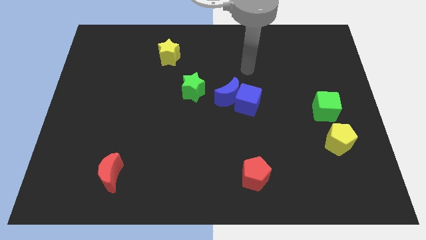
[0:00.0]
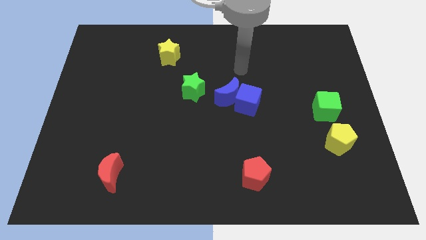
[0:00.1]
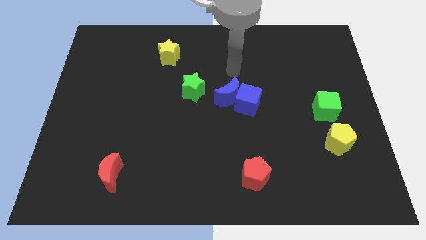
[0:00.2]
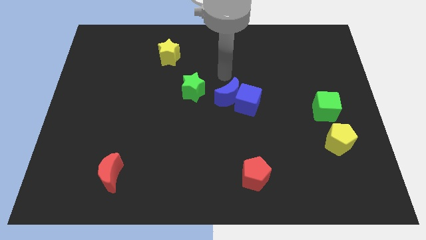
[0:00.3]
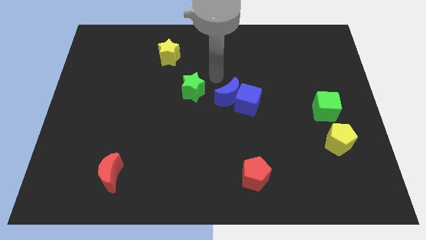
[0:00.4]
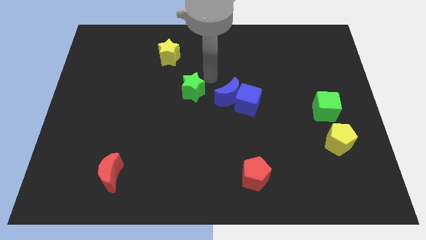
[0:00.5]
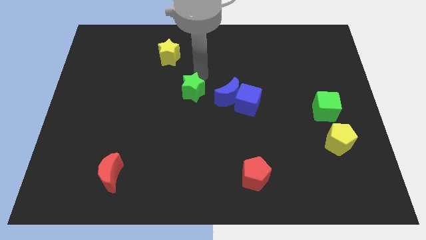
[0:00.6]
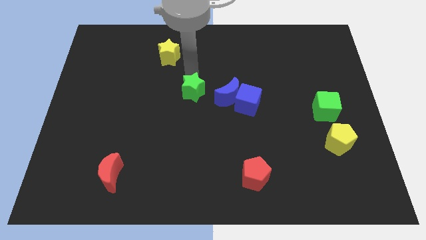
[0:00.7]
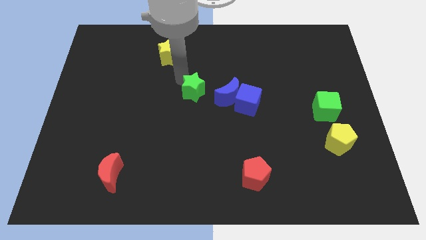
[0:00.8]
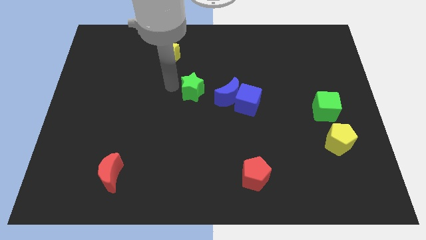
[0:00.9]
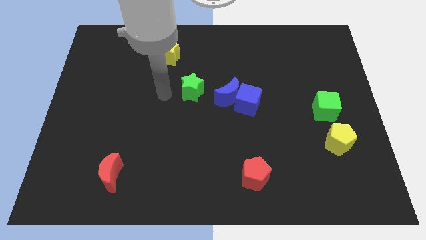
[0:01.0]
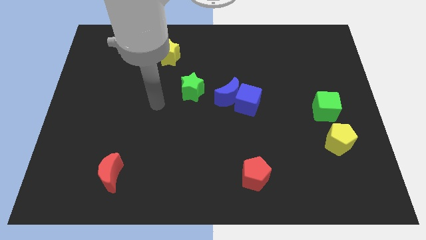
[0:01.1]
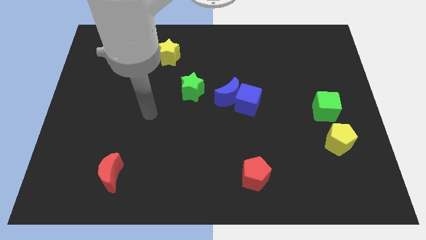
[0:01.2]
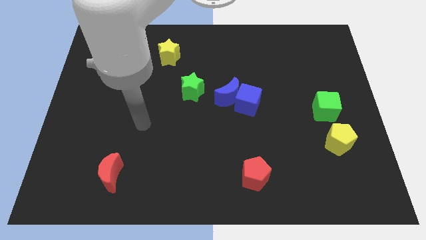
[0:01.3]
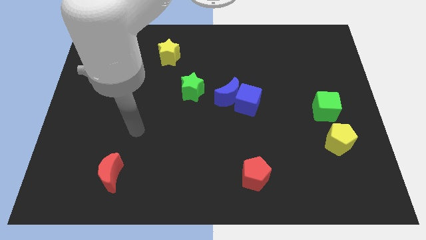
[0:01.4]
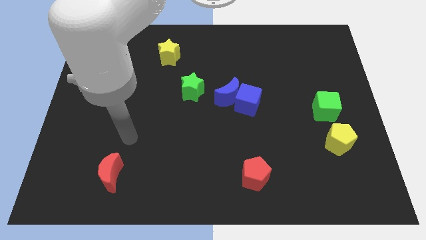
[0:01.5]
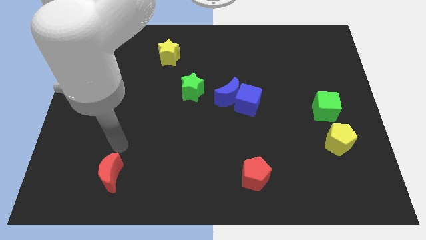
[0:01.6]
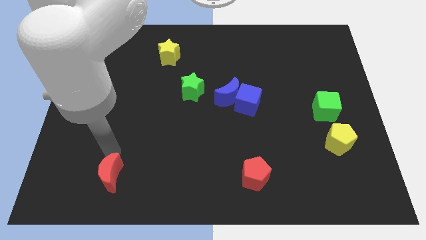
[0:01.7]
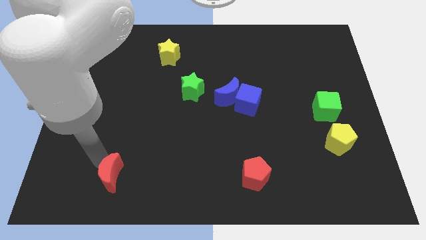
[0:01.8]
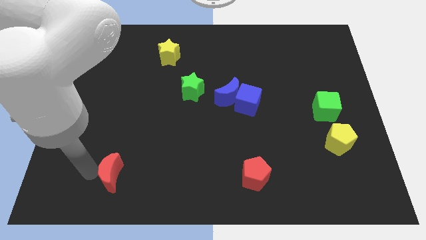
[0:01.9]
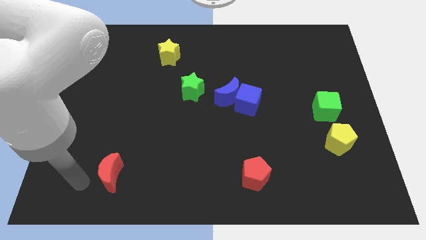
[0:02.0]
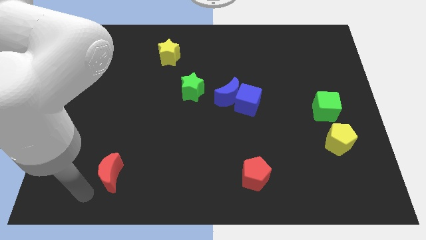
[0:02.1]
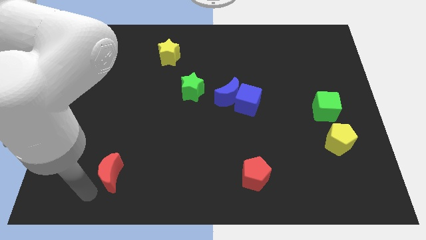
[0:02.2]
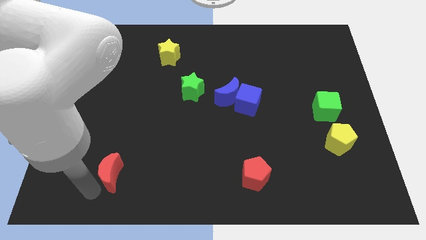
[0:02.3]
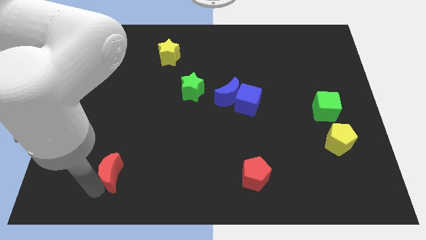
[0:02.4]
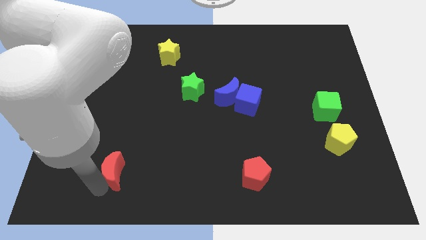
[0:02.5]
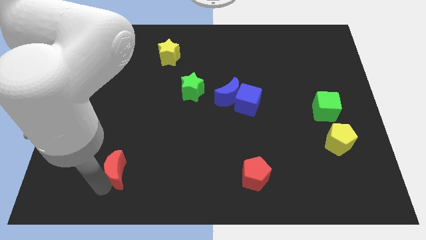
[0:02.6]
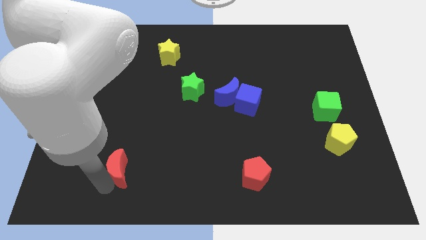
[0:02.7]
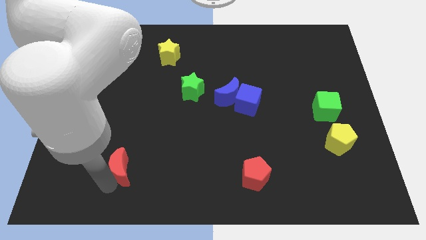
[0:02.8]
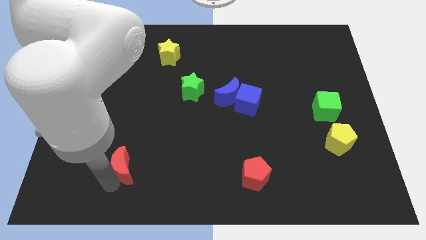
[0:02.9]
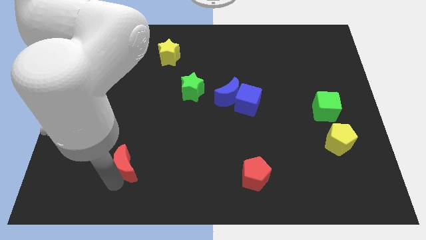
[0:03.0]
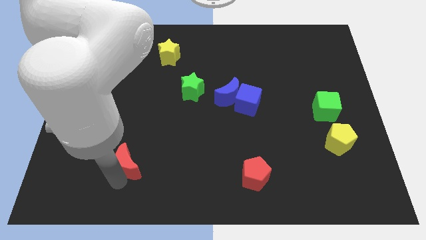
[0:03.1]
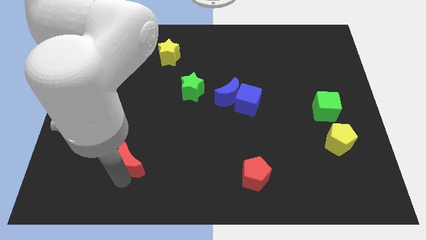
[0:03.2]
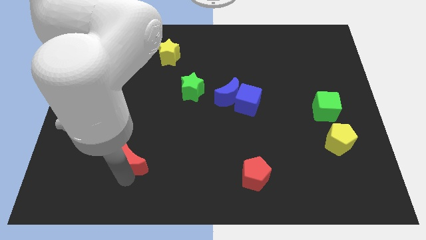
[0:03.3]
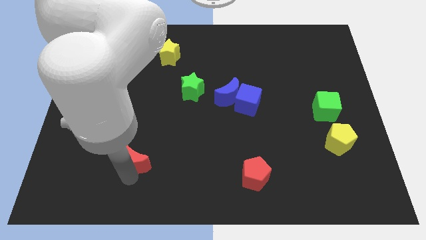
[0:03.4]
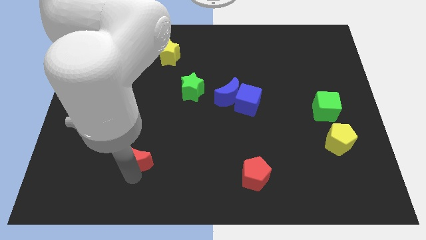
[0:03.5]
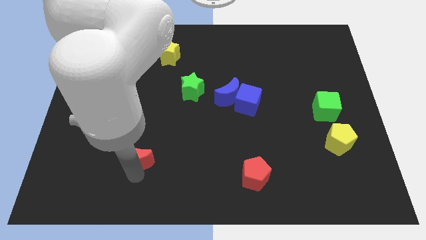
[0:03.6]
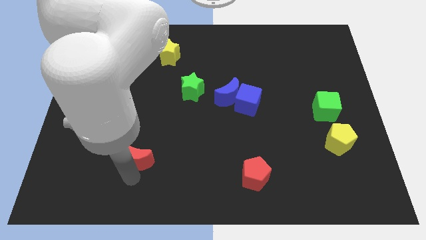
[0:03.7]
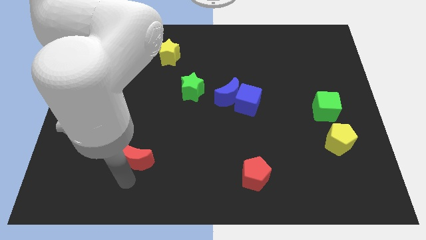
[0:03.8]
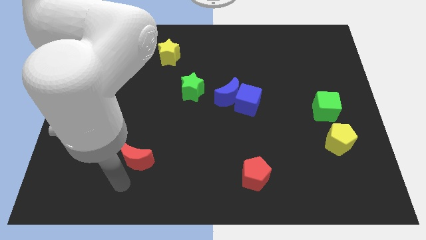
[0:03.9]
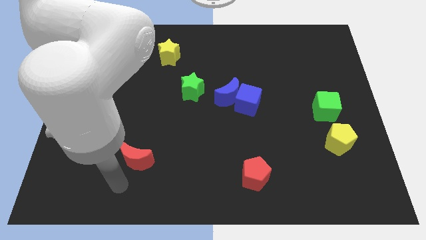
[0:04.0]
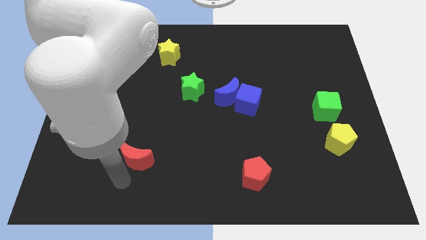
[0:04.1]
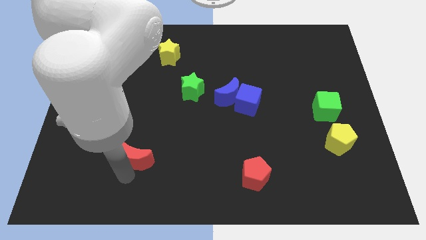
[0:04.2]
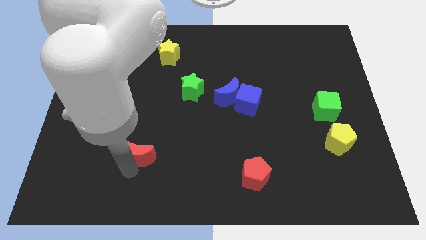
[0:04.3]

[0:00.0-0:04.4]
push the red moon up and right slightly

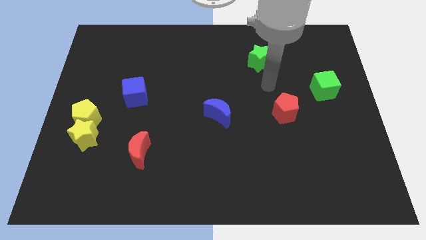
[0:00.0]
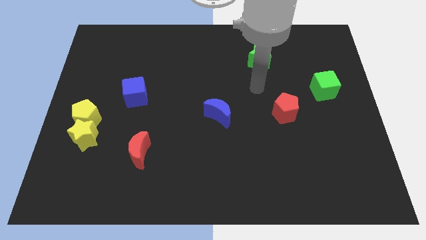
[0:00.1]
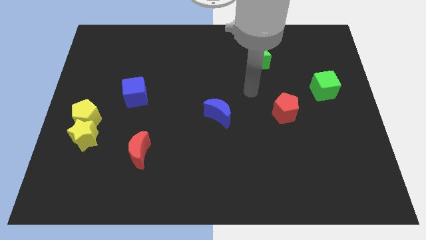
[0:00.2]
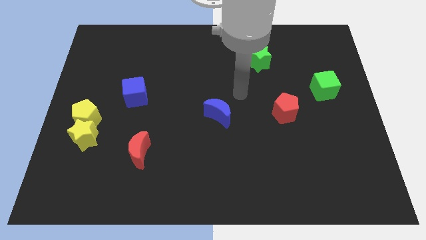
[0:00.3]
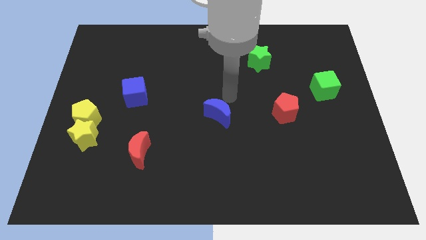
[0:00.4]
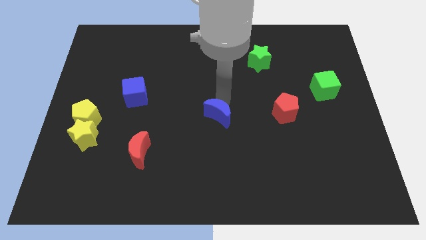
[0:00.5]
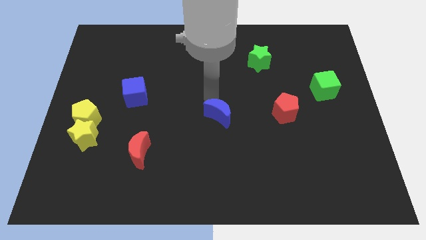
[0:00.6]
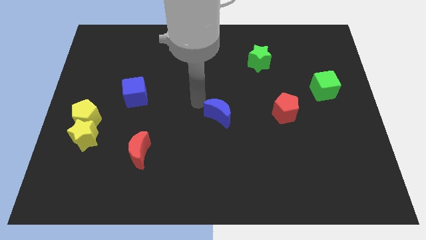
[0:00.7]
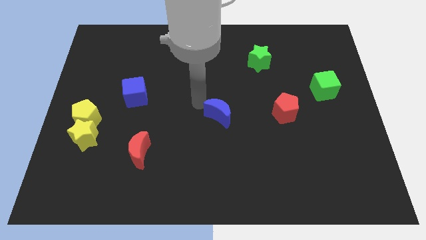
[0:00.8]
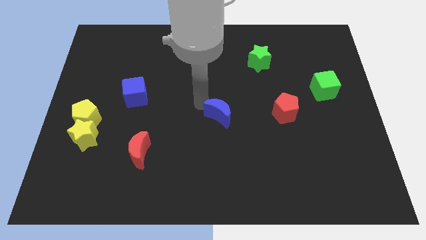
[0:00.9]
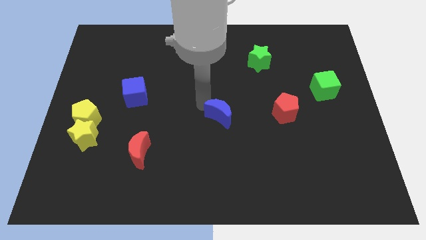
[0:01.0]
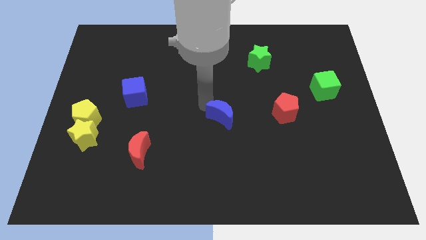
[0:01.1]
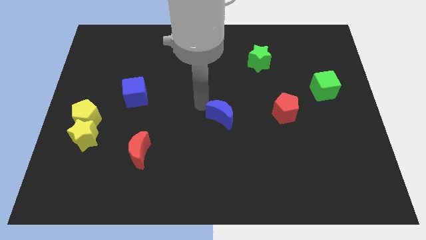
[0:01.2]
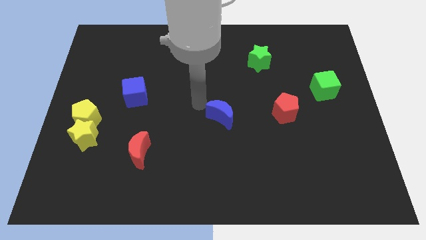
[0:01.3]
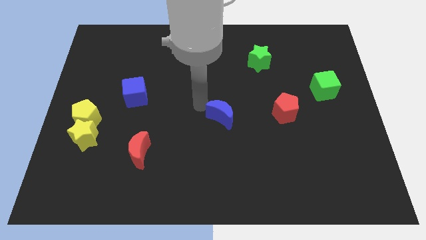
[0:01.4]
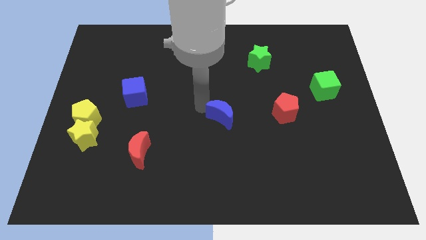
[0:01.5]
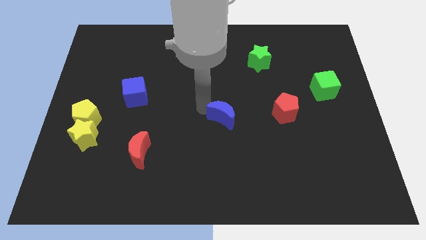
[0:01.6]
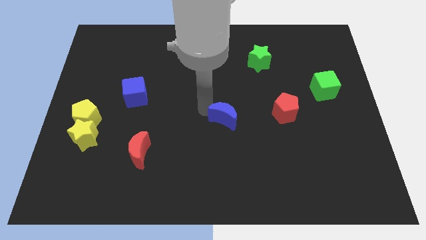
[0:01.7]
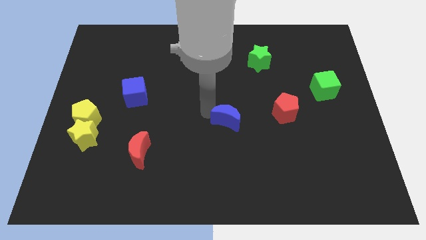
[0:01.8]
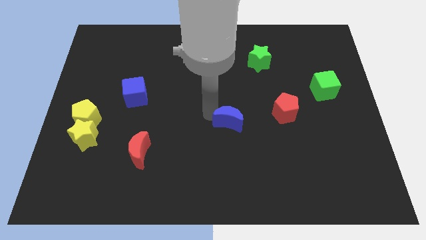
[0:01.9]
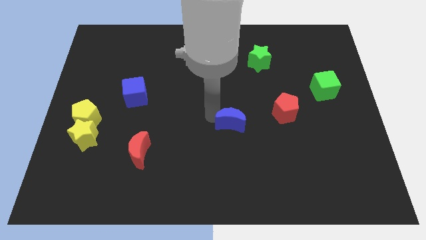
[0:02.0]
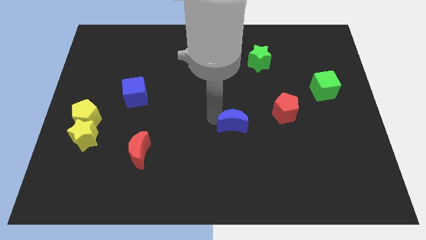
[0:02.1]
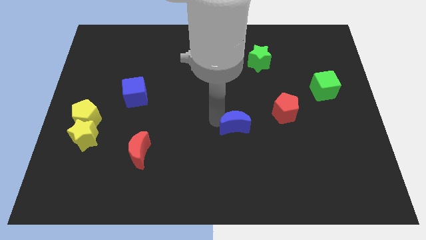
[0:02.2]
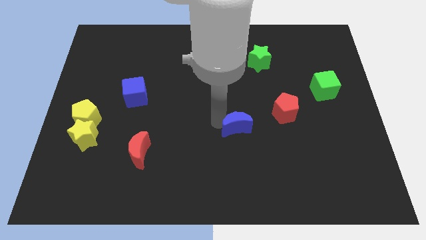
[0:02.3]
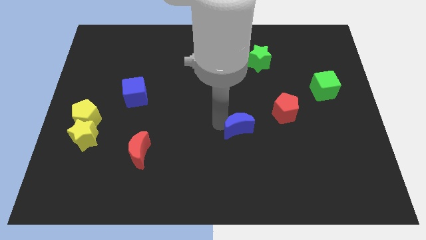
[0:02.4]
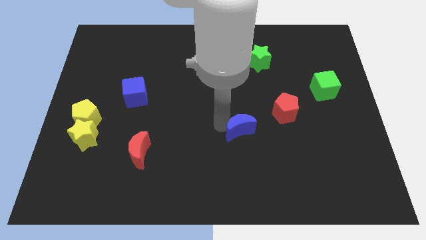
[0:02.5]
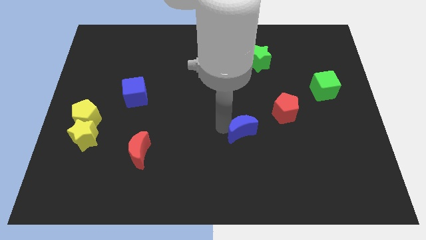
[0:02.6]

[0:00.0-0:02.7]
push the blue moon down and then to the right slightly

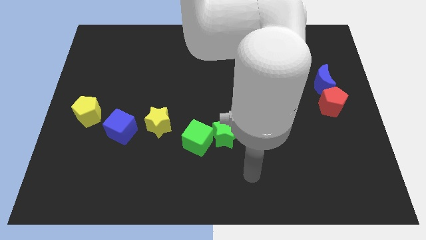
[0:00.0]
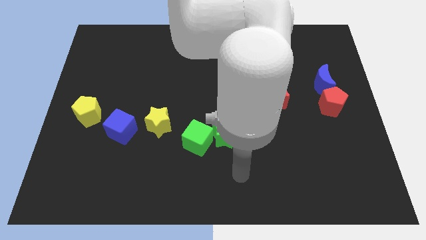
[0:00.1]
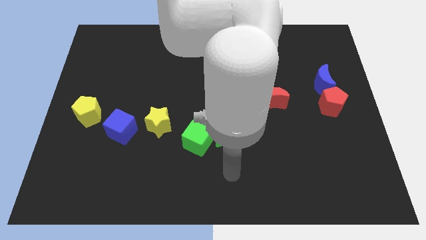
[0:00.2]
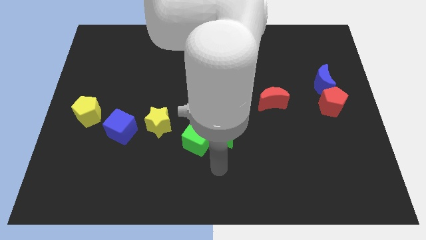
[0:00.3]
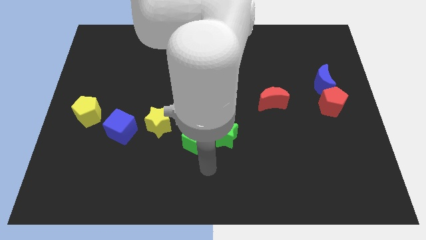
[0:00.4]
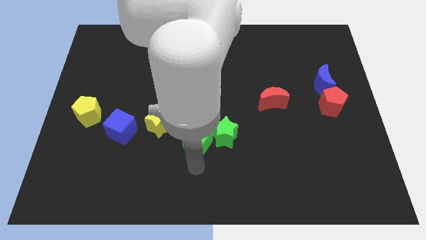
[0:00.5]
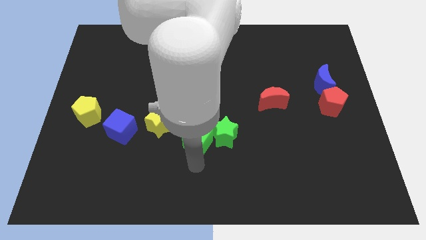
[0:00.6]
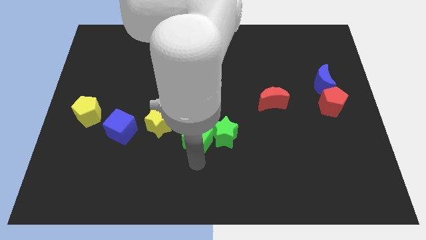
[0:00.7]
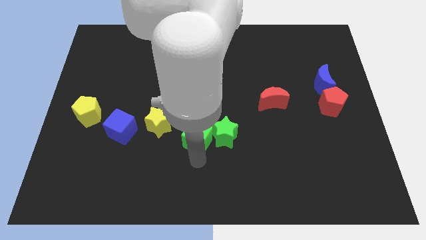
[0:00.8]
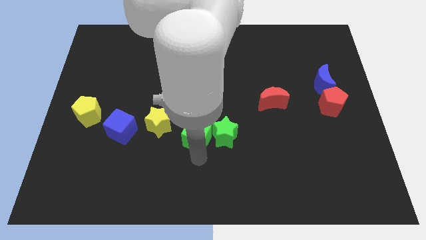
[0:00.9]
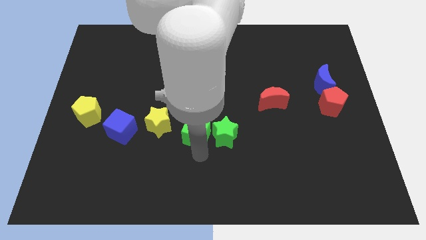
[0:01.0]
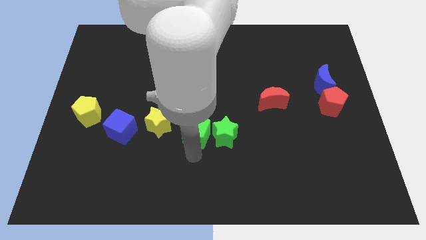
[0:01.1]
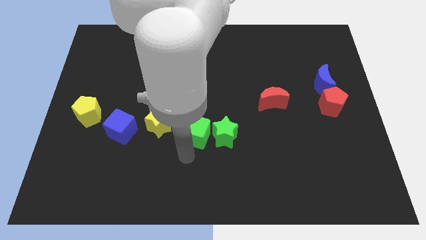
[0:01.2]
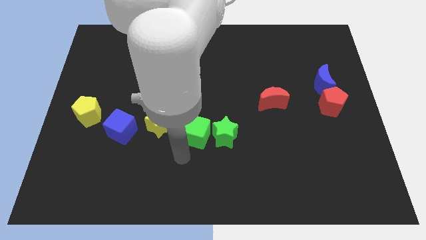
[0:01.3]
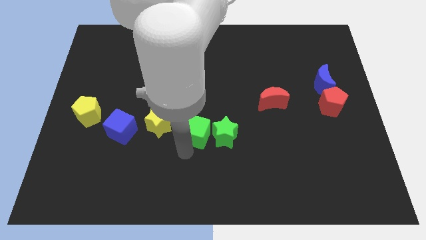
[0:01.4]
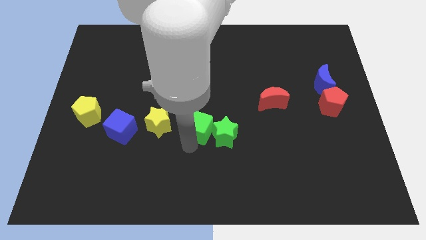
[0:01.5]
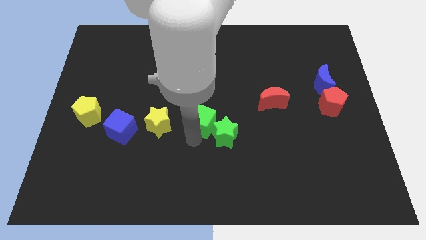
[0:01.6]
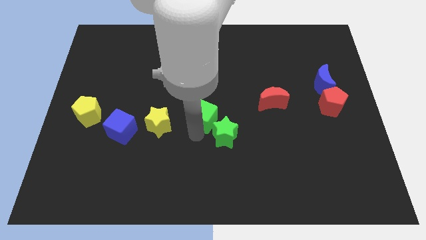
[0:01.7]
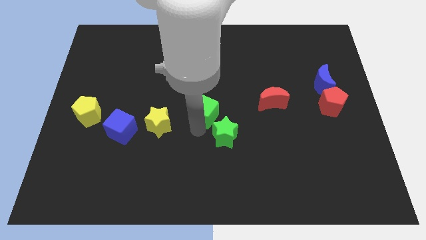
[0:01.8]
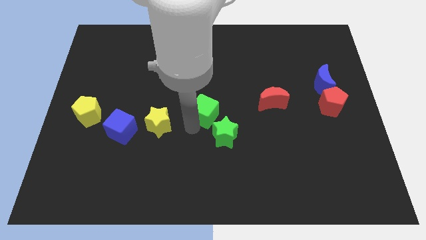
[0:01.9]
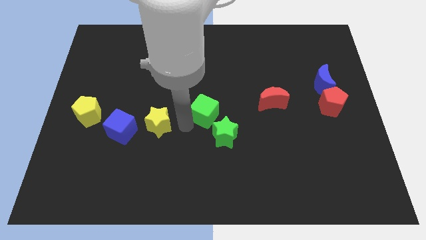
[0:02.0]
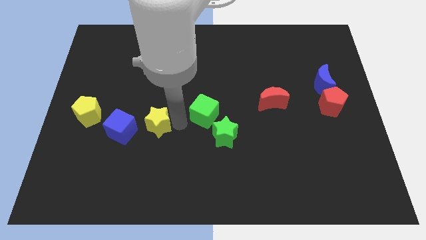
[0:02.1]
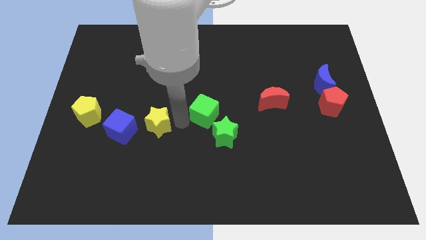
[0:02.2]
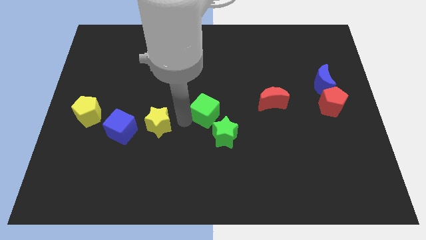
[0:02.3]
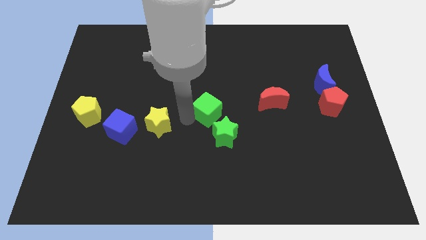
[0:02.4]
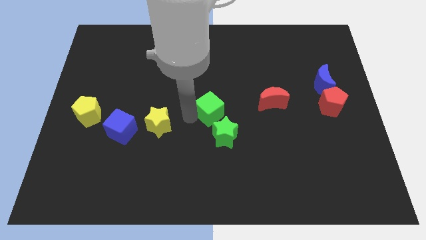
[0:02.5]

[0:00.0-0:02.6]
slide the green cube up and right somewhat
